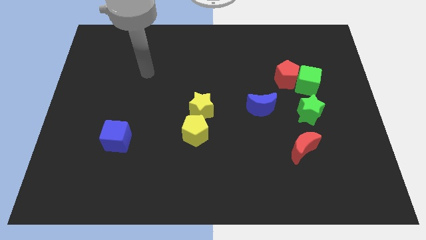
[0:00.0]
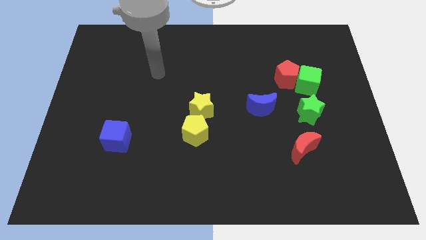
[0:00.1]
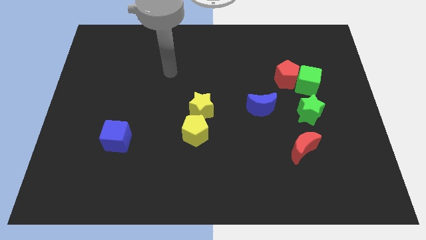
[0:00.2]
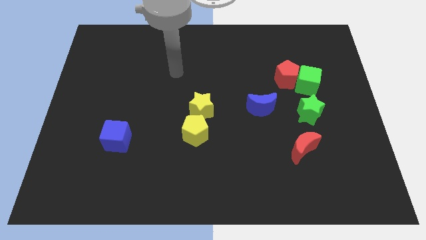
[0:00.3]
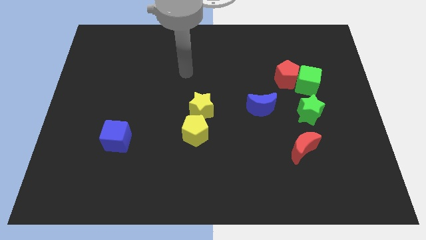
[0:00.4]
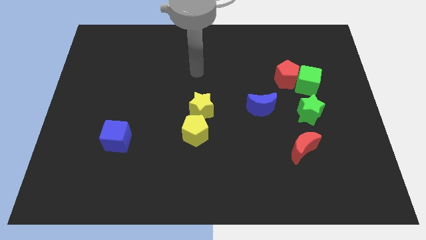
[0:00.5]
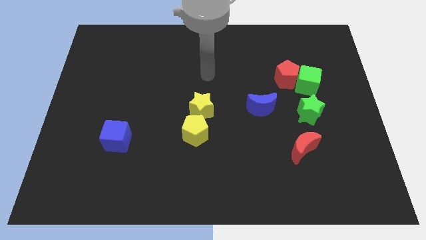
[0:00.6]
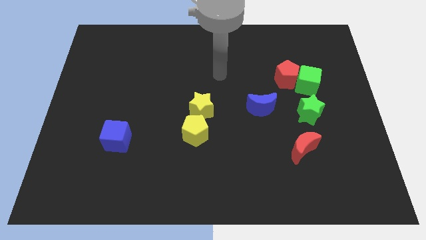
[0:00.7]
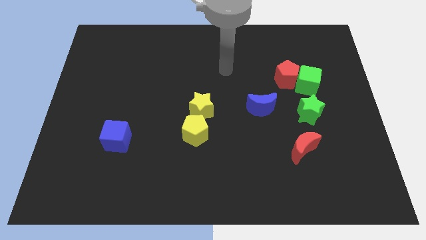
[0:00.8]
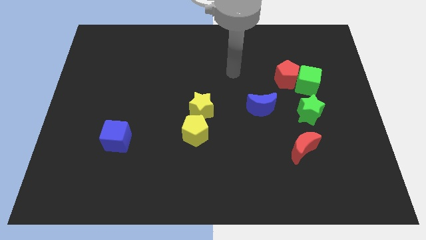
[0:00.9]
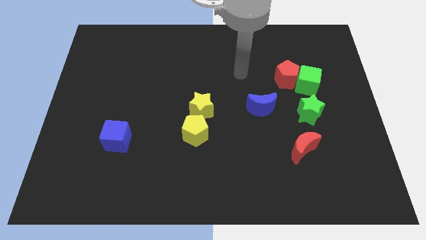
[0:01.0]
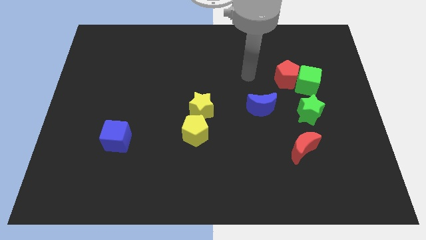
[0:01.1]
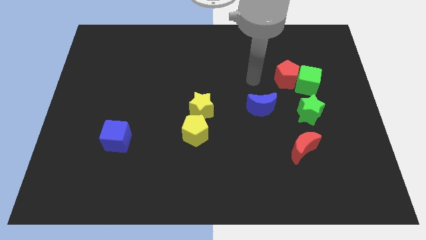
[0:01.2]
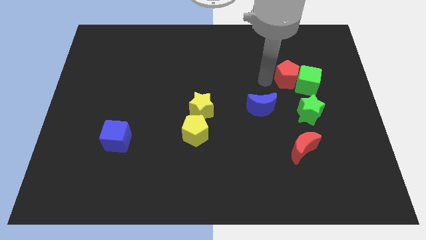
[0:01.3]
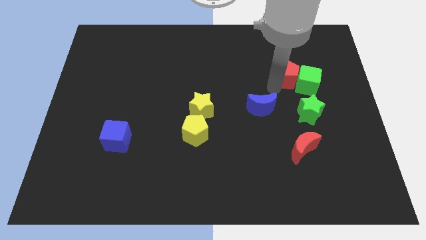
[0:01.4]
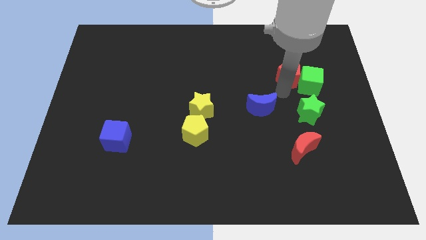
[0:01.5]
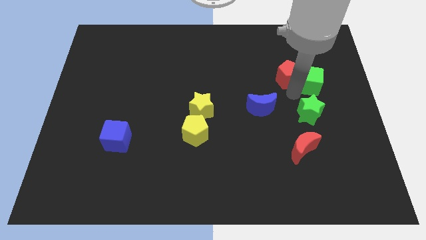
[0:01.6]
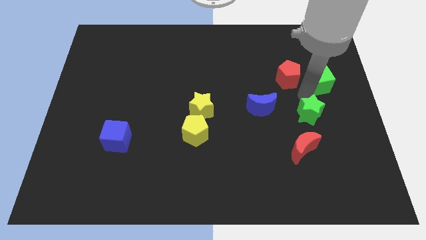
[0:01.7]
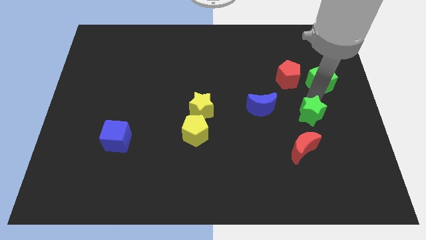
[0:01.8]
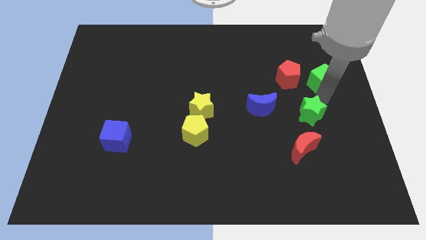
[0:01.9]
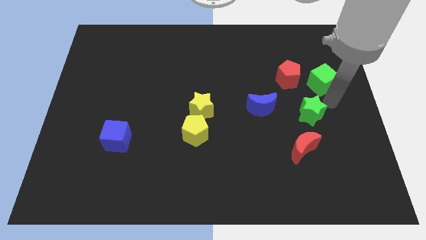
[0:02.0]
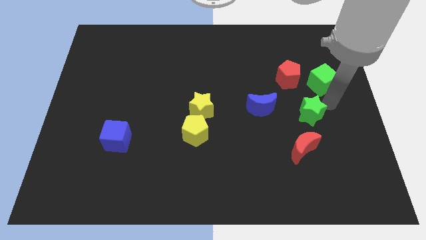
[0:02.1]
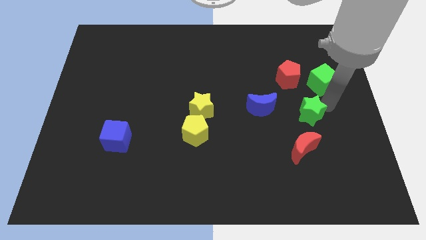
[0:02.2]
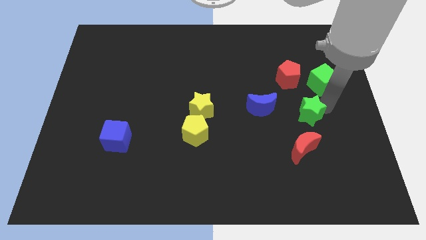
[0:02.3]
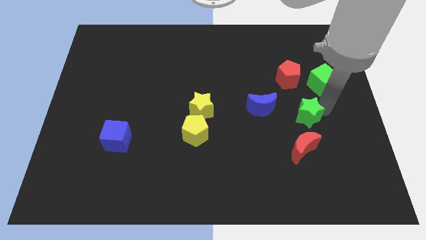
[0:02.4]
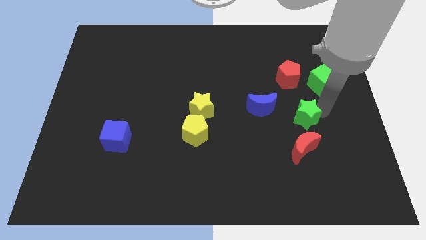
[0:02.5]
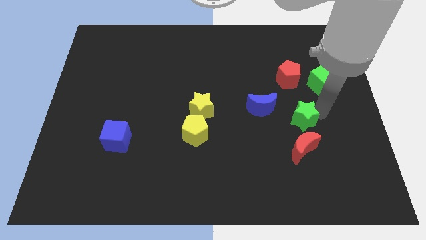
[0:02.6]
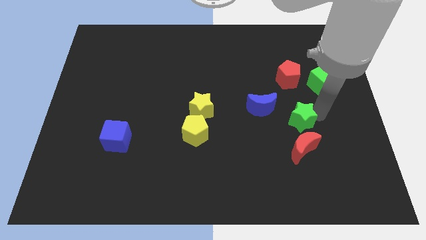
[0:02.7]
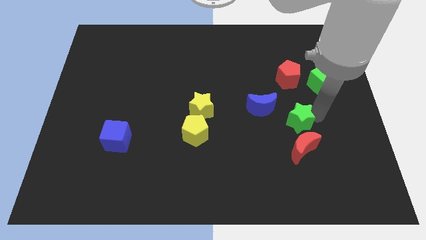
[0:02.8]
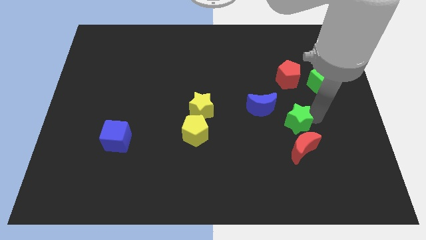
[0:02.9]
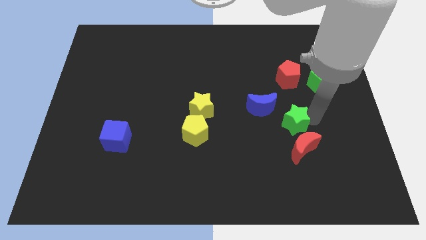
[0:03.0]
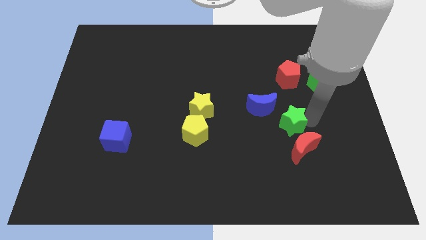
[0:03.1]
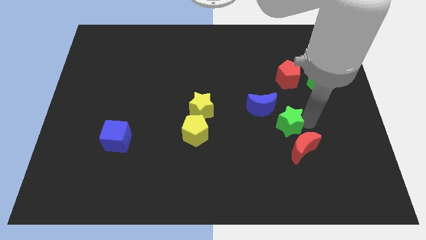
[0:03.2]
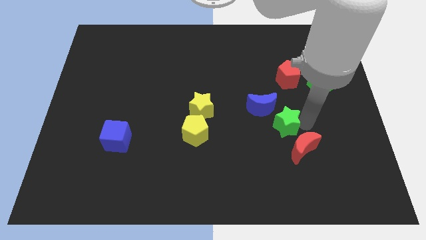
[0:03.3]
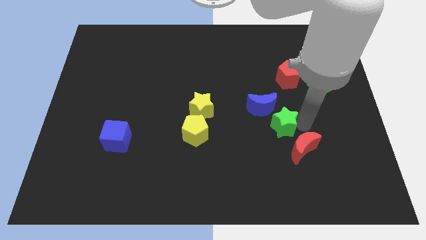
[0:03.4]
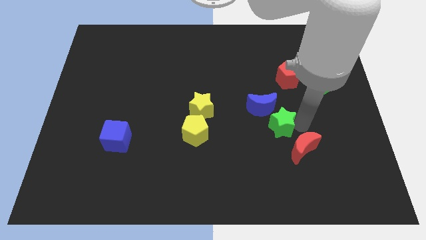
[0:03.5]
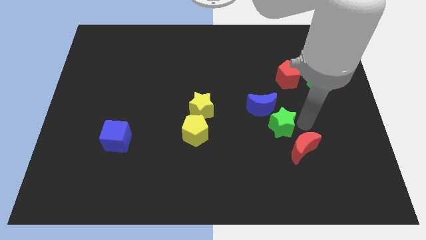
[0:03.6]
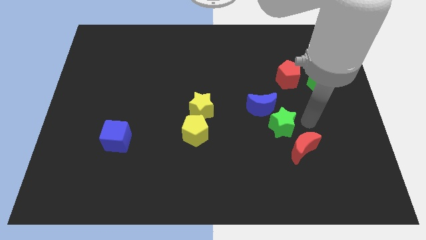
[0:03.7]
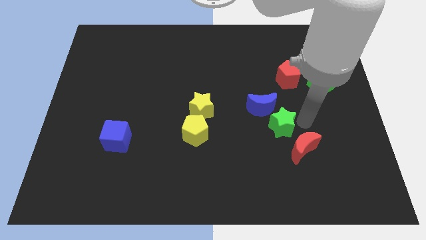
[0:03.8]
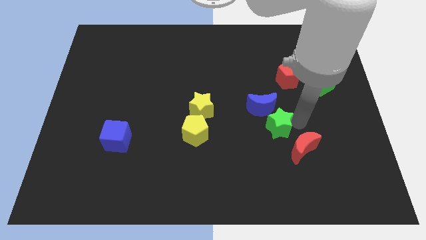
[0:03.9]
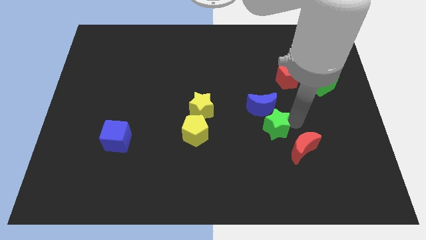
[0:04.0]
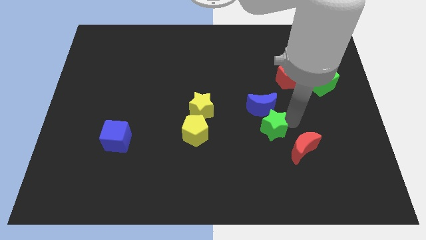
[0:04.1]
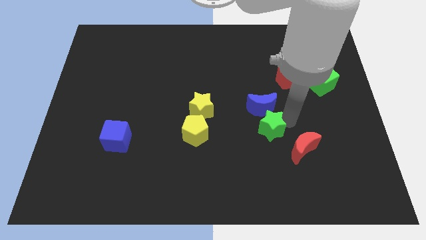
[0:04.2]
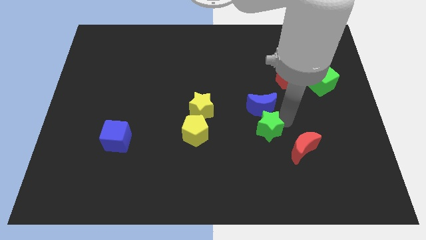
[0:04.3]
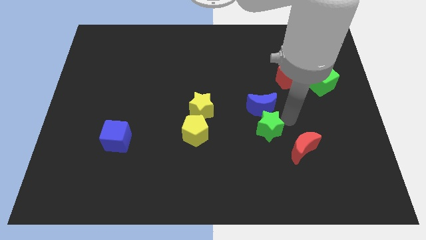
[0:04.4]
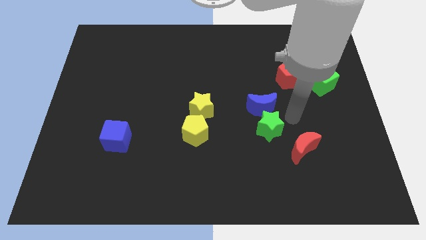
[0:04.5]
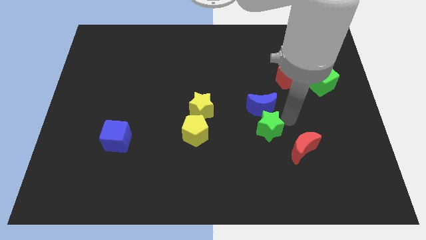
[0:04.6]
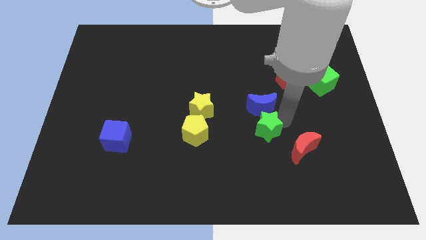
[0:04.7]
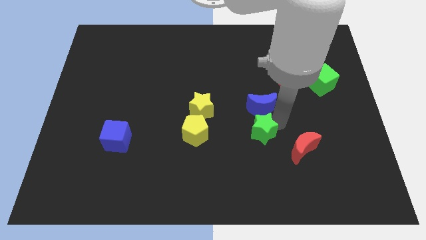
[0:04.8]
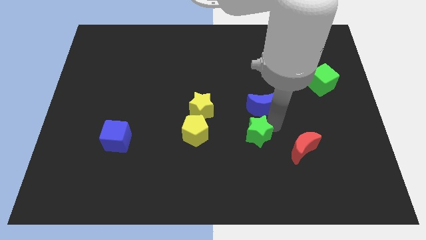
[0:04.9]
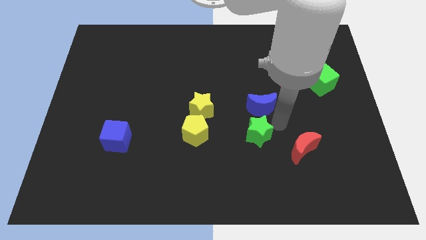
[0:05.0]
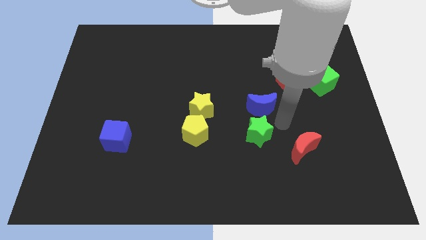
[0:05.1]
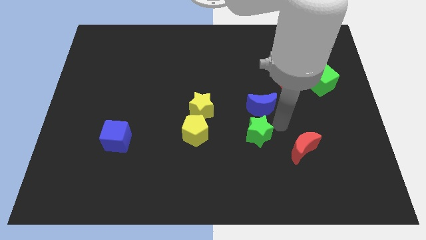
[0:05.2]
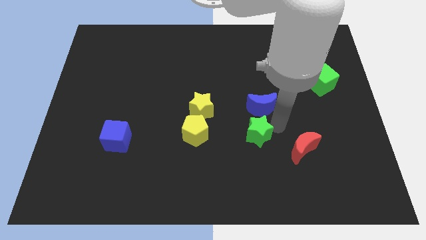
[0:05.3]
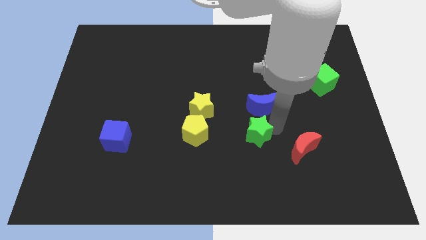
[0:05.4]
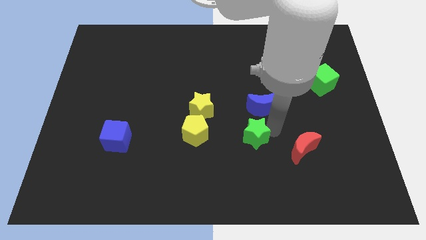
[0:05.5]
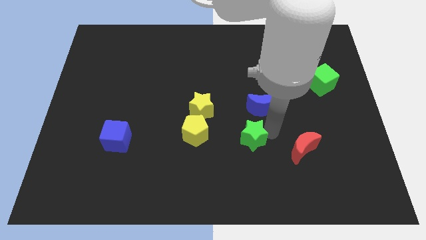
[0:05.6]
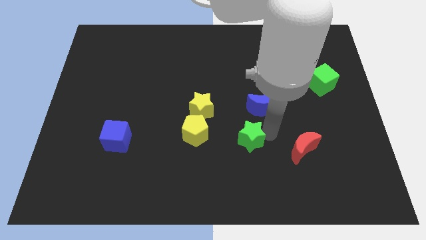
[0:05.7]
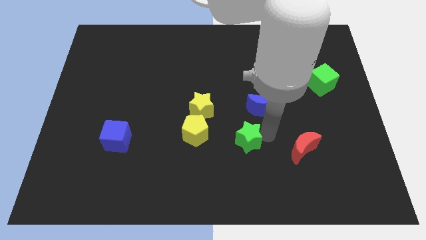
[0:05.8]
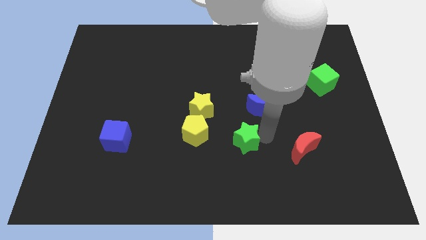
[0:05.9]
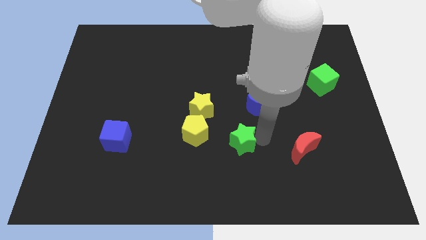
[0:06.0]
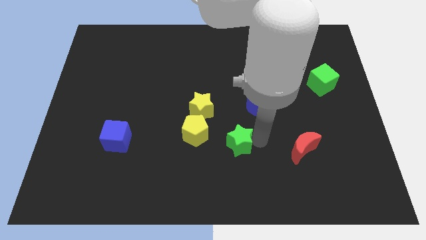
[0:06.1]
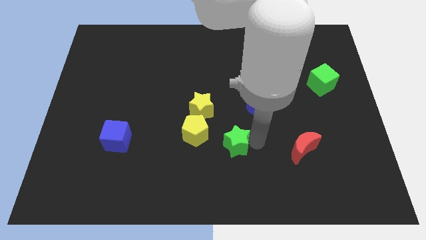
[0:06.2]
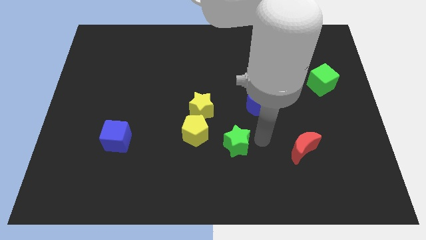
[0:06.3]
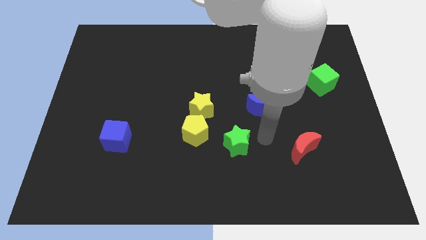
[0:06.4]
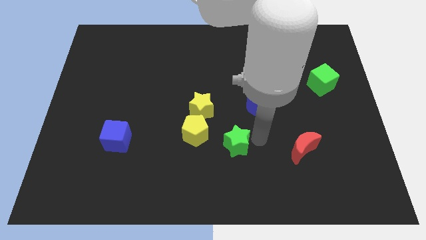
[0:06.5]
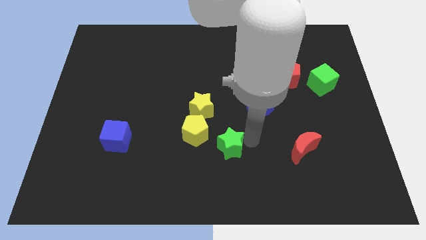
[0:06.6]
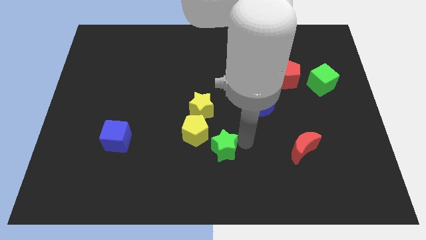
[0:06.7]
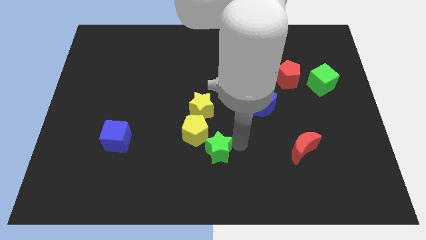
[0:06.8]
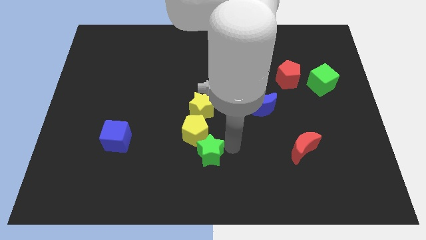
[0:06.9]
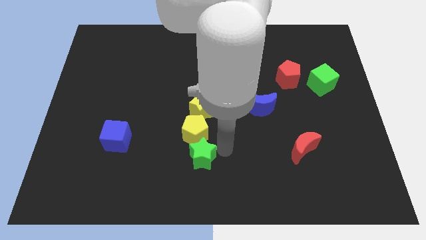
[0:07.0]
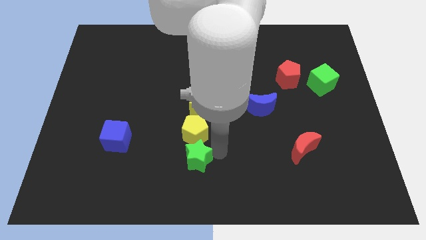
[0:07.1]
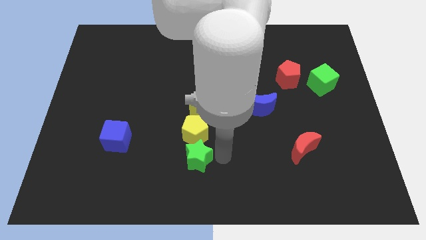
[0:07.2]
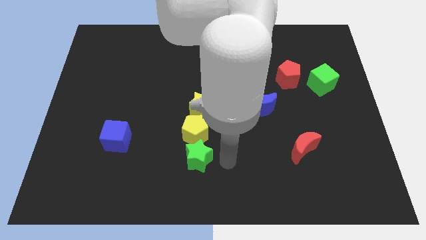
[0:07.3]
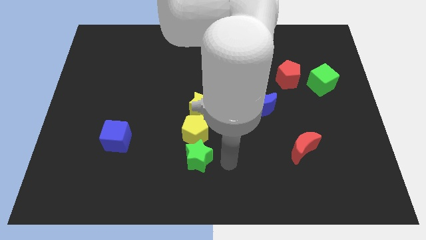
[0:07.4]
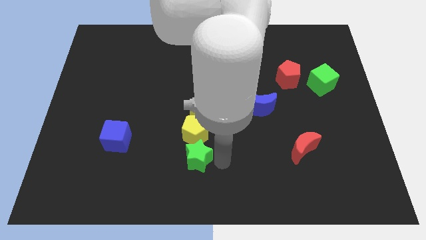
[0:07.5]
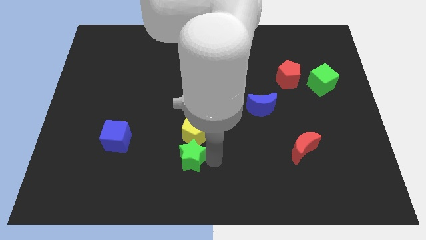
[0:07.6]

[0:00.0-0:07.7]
move the green star to the bottom left of the yellow pentagon
